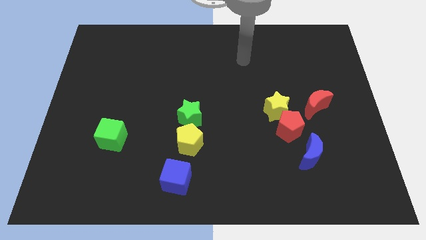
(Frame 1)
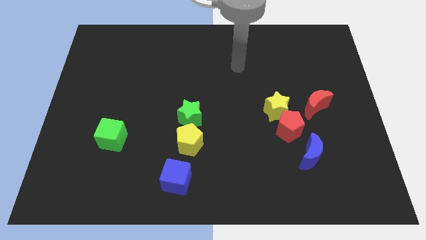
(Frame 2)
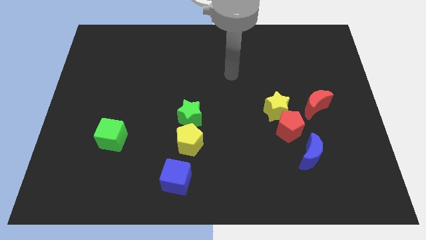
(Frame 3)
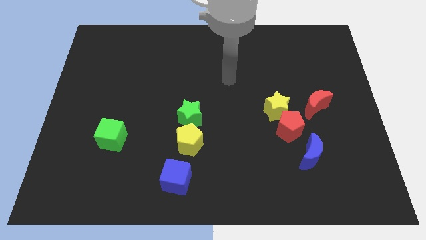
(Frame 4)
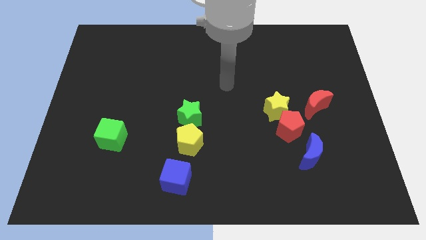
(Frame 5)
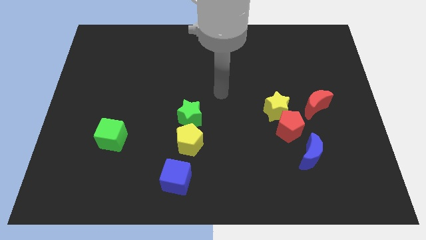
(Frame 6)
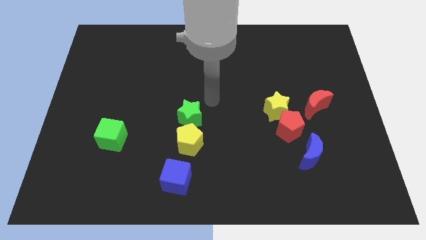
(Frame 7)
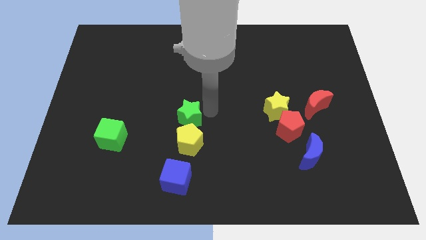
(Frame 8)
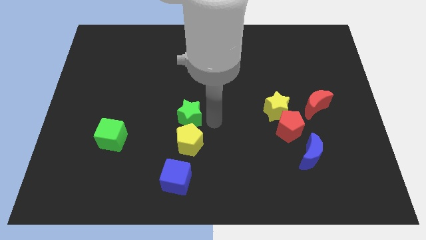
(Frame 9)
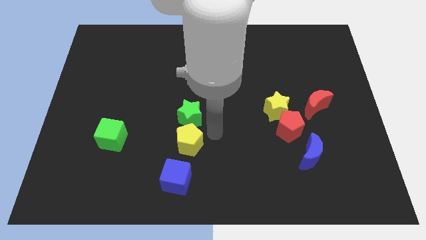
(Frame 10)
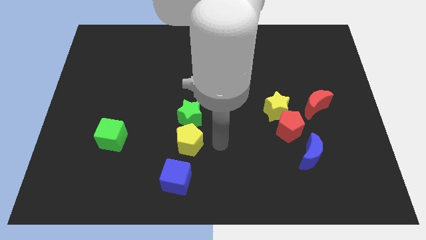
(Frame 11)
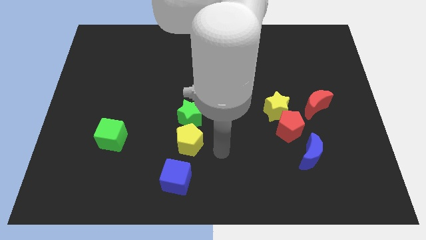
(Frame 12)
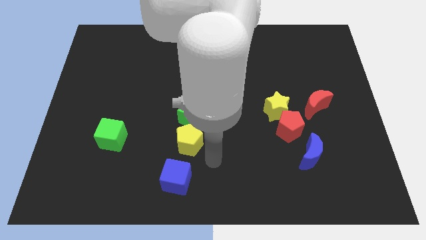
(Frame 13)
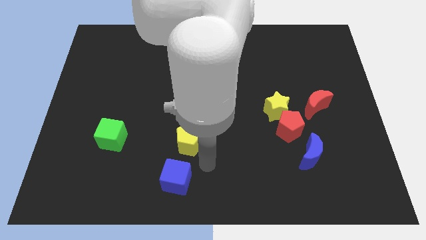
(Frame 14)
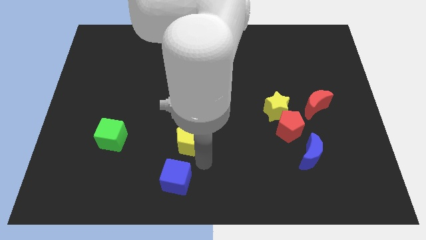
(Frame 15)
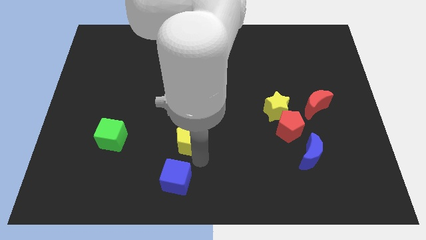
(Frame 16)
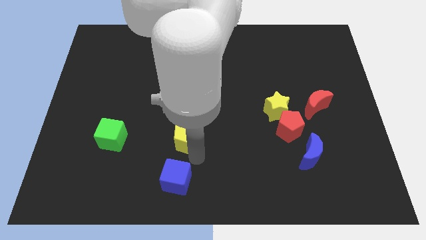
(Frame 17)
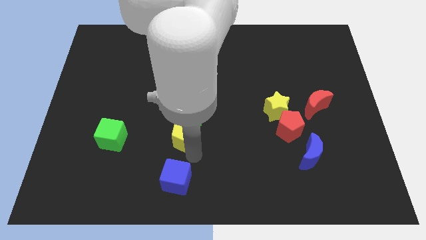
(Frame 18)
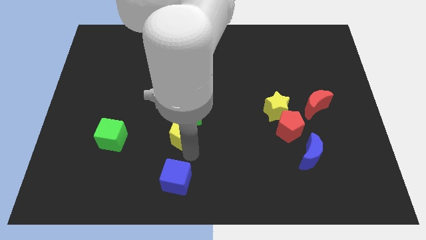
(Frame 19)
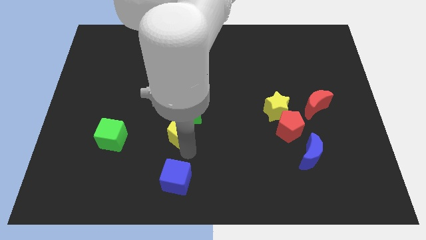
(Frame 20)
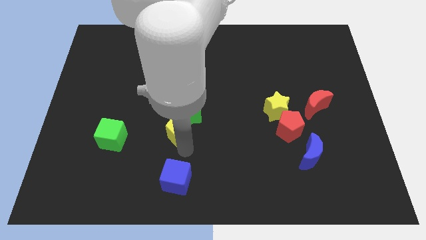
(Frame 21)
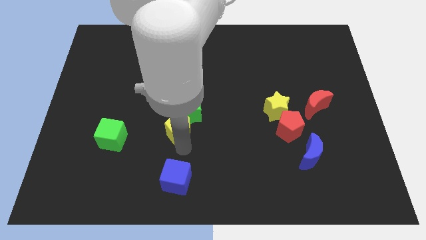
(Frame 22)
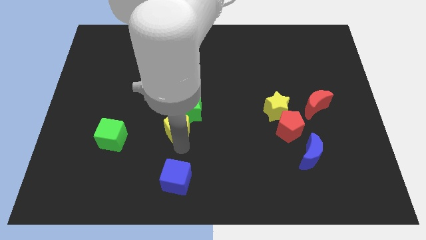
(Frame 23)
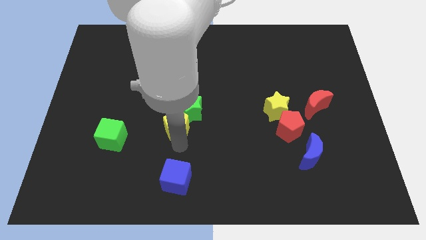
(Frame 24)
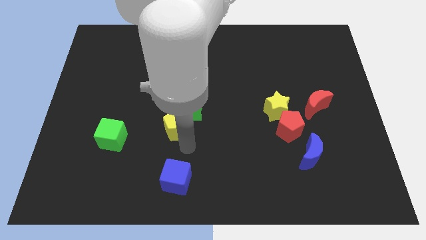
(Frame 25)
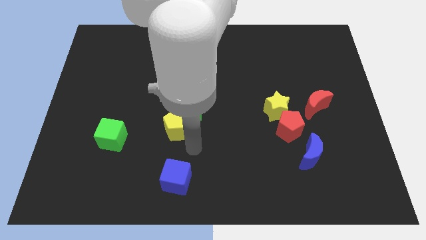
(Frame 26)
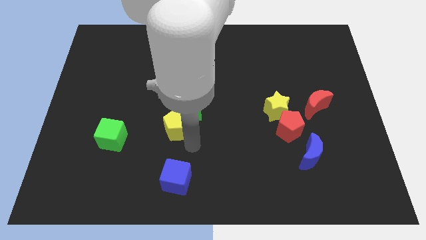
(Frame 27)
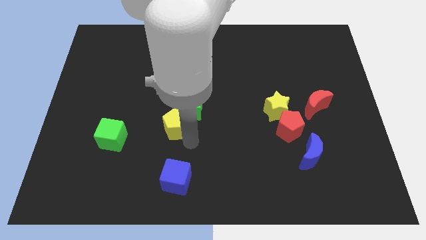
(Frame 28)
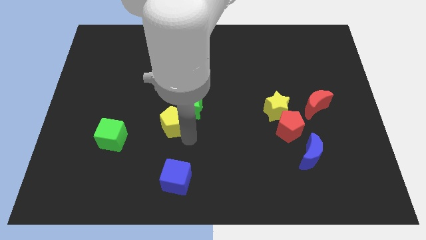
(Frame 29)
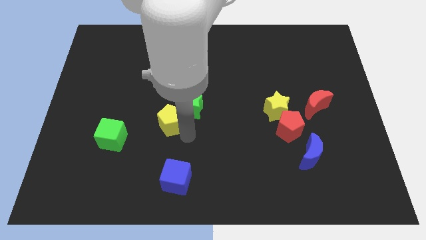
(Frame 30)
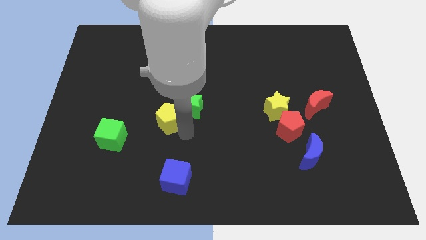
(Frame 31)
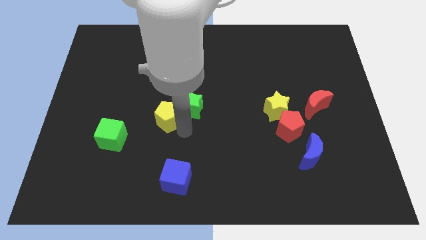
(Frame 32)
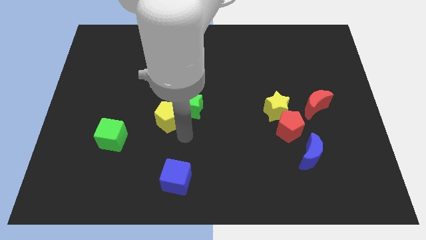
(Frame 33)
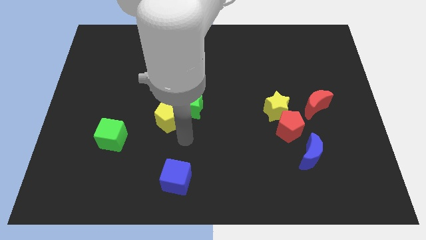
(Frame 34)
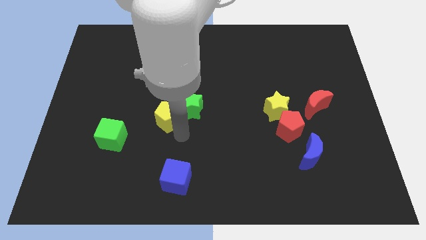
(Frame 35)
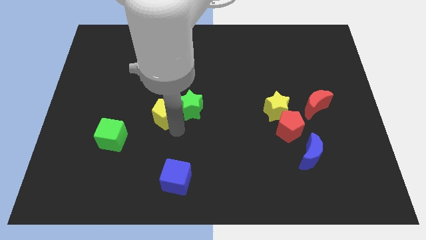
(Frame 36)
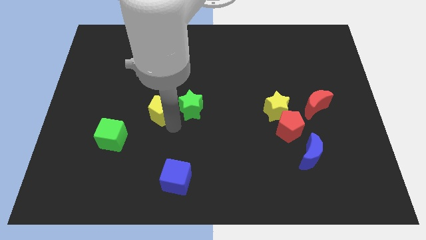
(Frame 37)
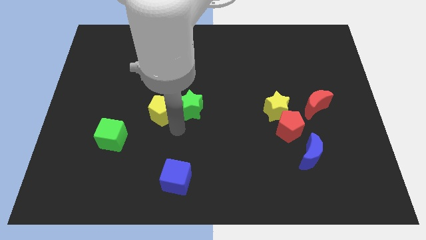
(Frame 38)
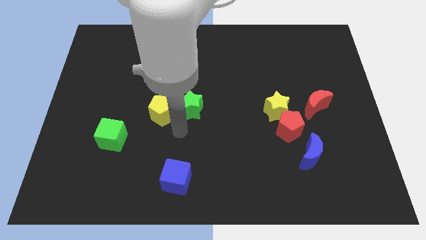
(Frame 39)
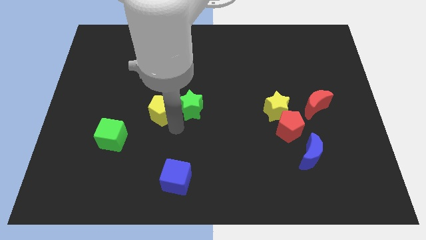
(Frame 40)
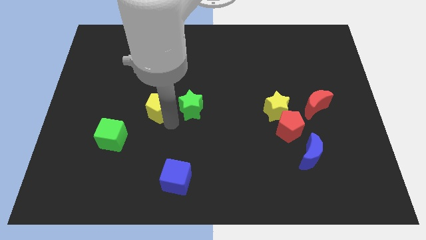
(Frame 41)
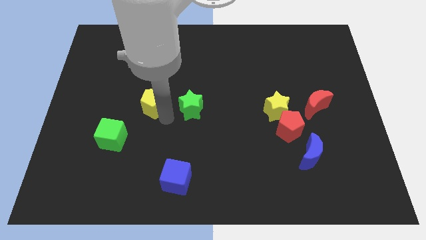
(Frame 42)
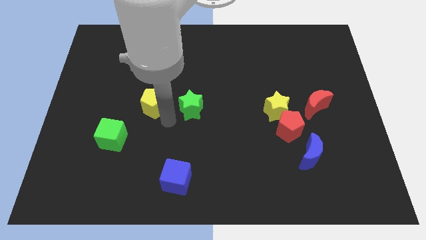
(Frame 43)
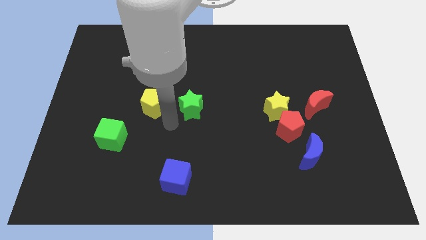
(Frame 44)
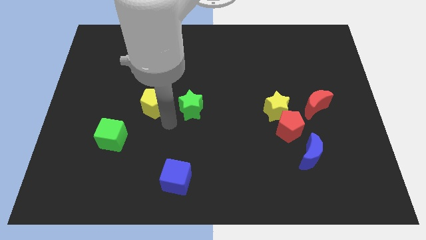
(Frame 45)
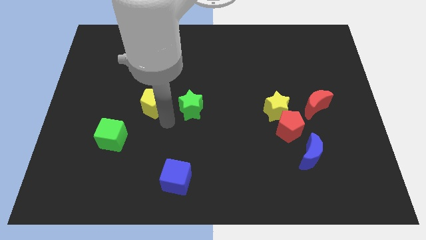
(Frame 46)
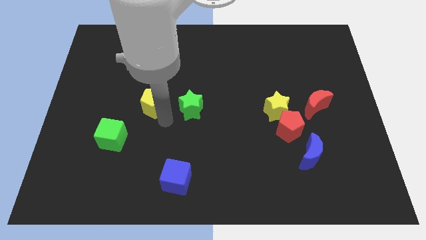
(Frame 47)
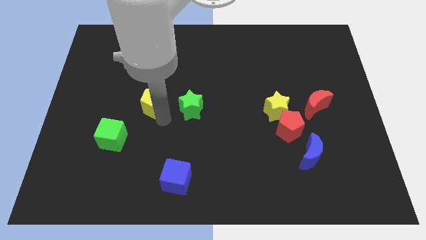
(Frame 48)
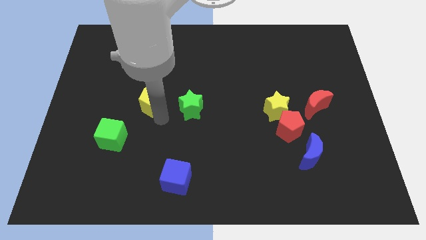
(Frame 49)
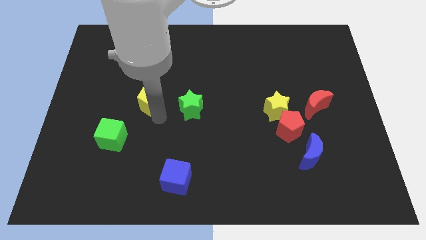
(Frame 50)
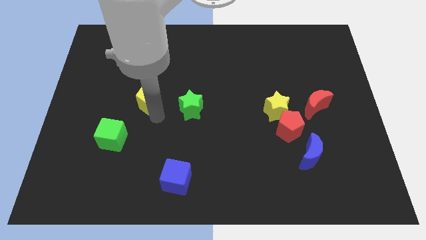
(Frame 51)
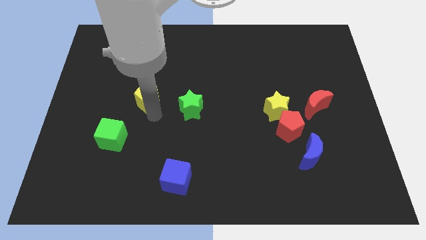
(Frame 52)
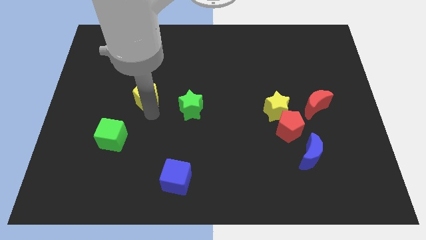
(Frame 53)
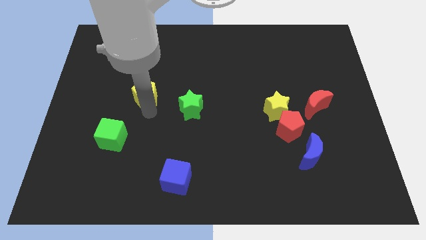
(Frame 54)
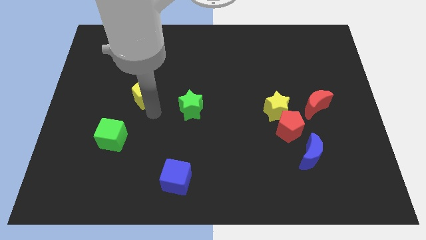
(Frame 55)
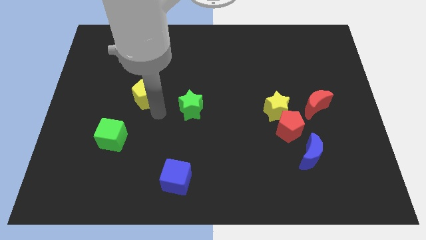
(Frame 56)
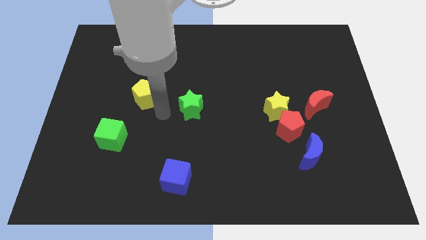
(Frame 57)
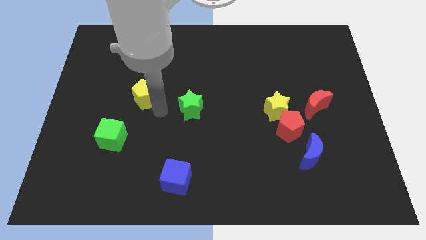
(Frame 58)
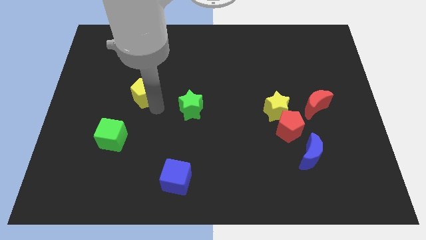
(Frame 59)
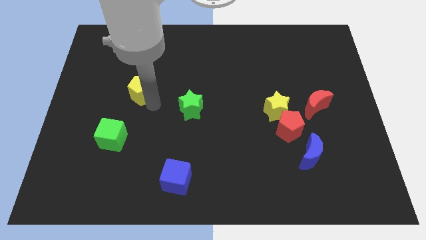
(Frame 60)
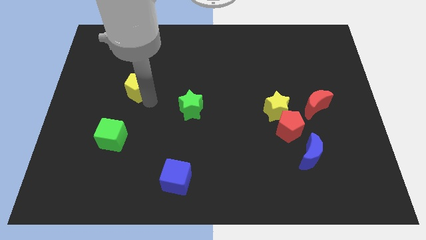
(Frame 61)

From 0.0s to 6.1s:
slide the yellow pentagon up and left

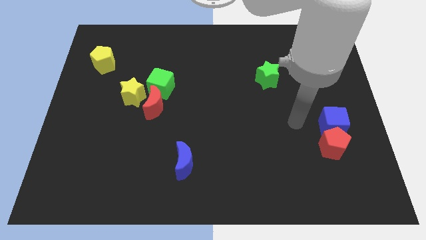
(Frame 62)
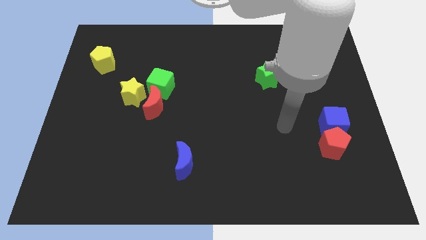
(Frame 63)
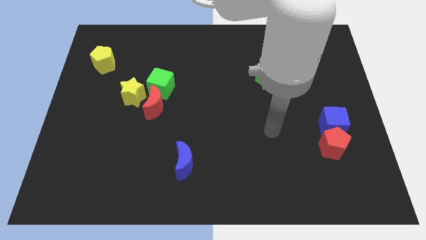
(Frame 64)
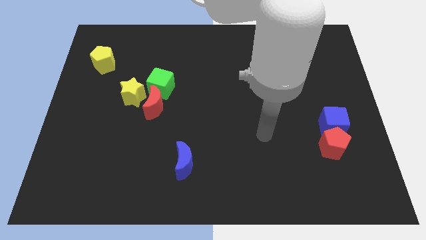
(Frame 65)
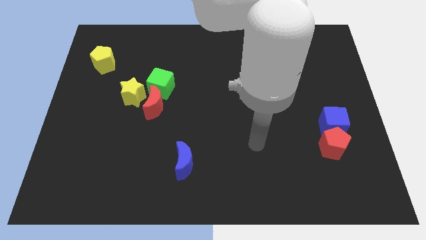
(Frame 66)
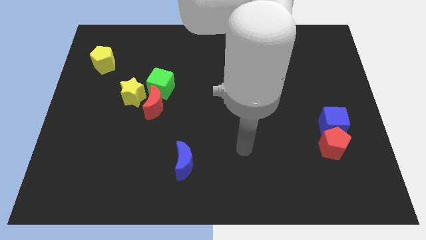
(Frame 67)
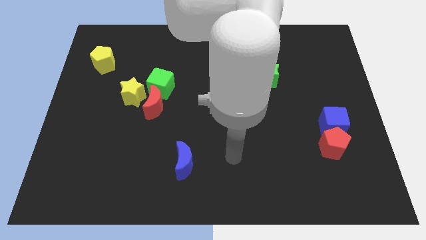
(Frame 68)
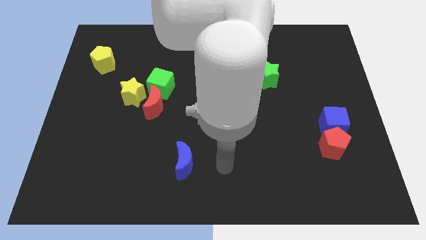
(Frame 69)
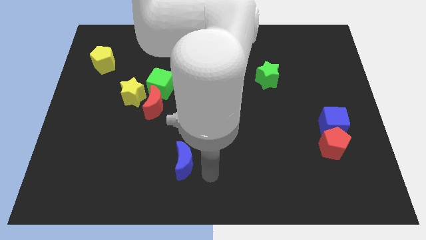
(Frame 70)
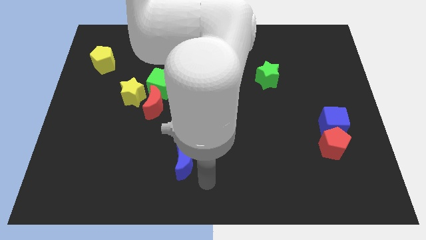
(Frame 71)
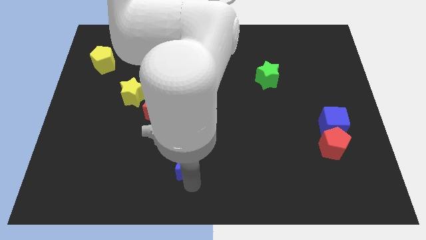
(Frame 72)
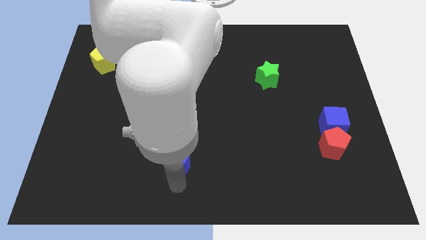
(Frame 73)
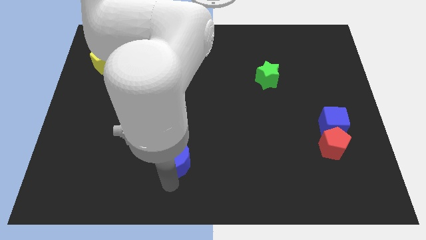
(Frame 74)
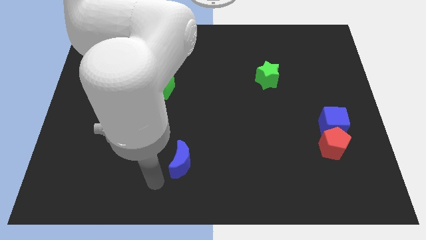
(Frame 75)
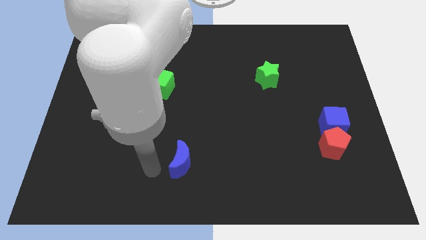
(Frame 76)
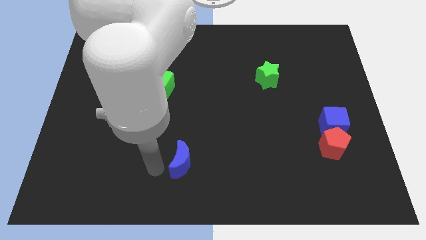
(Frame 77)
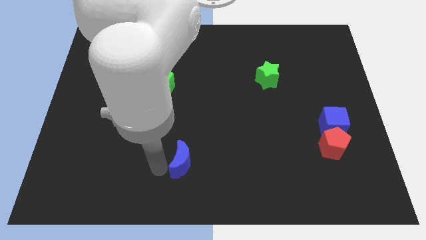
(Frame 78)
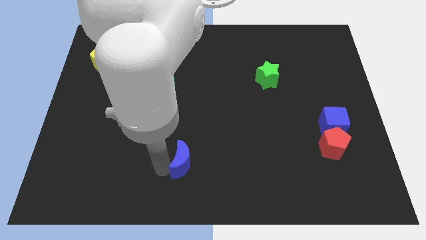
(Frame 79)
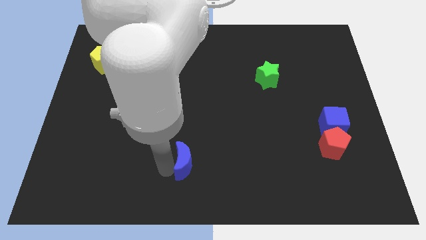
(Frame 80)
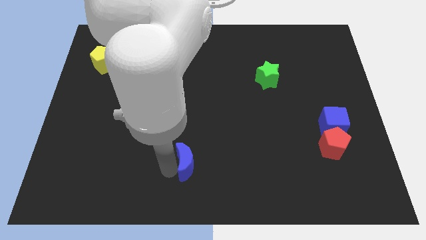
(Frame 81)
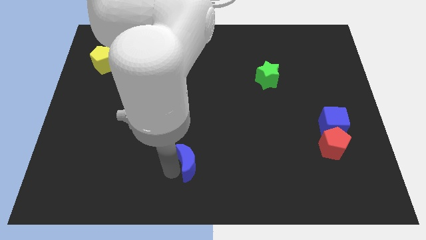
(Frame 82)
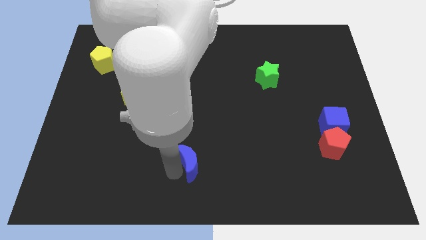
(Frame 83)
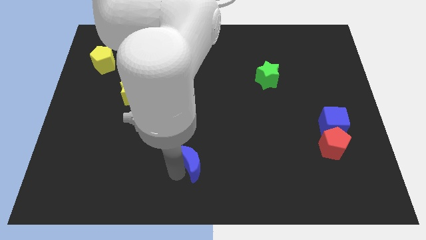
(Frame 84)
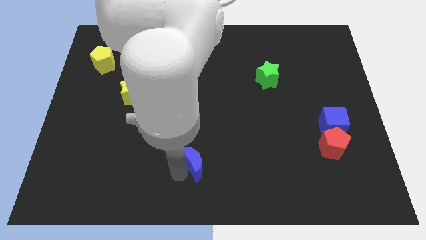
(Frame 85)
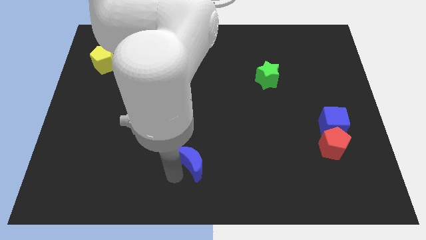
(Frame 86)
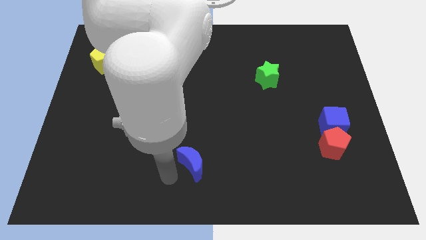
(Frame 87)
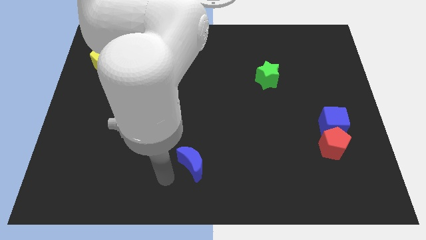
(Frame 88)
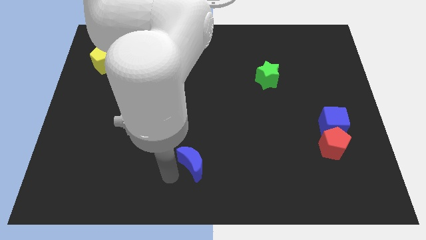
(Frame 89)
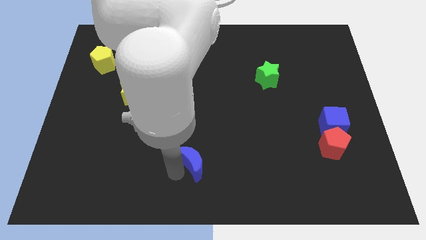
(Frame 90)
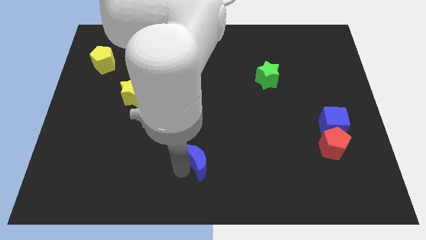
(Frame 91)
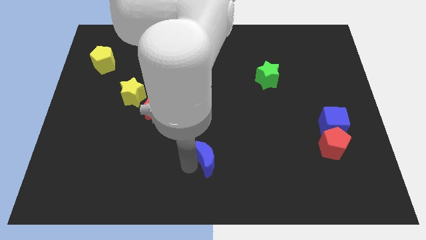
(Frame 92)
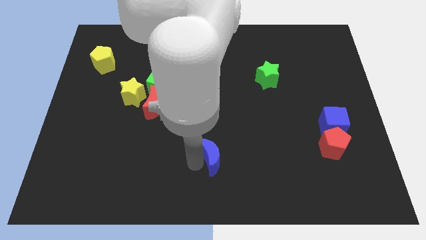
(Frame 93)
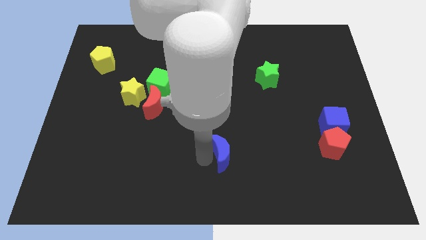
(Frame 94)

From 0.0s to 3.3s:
slide the blue moon right somewhat
